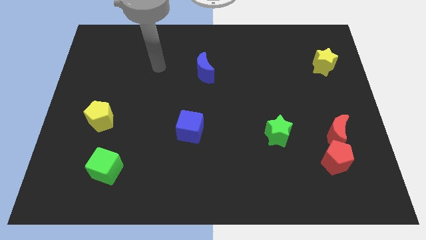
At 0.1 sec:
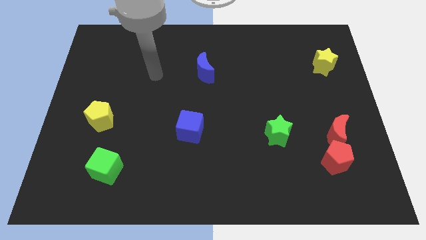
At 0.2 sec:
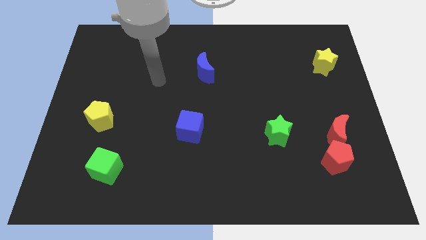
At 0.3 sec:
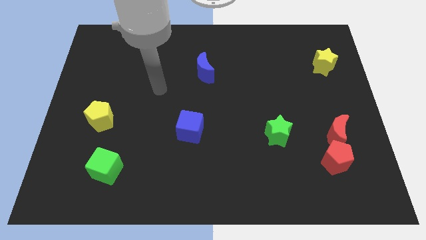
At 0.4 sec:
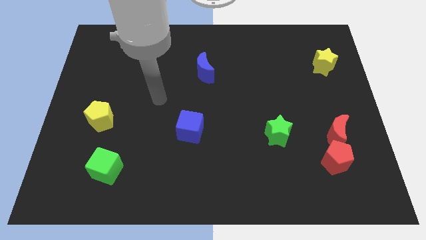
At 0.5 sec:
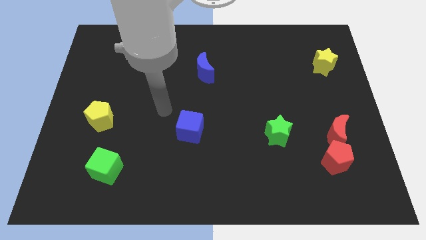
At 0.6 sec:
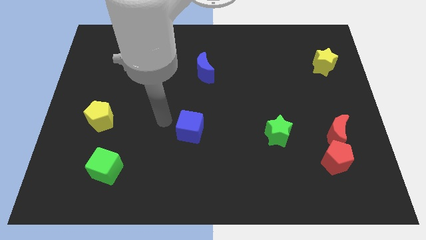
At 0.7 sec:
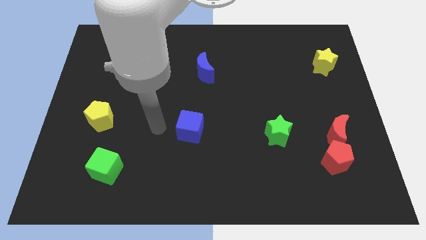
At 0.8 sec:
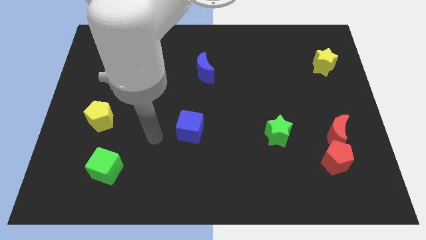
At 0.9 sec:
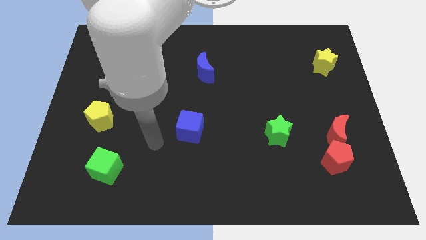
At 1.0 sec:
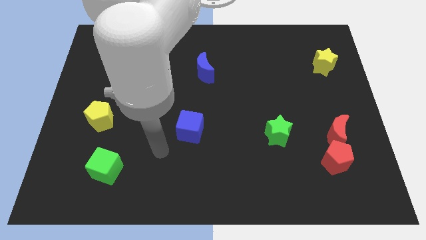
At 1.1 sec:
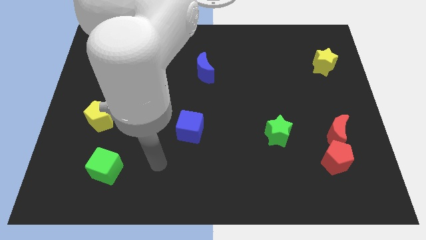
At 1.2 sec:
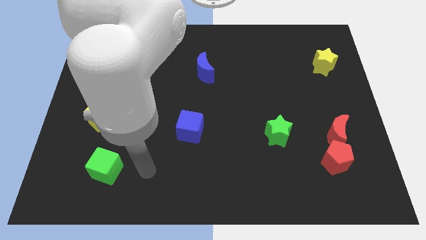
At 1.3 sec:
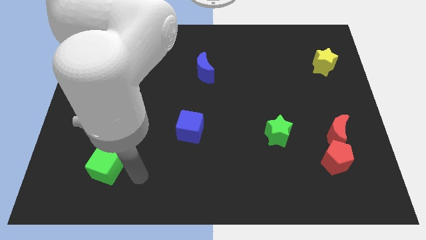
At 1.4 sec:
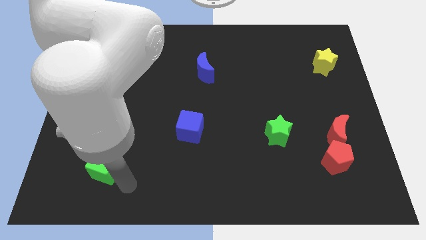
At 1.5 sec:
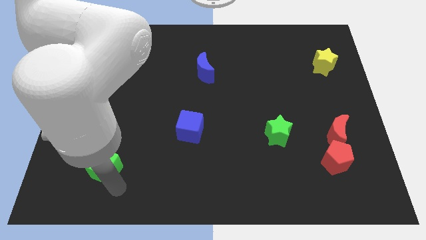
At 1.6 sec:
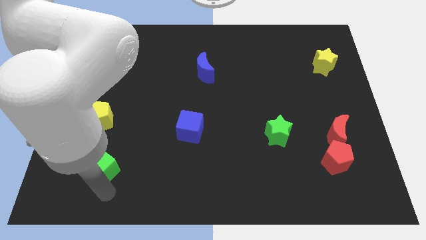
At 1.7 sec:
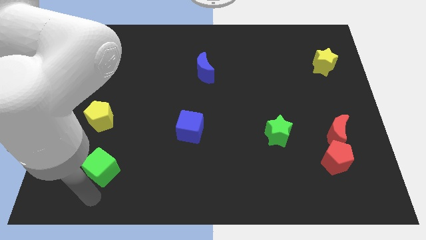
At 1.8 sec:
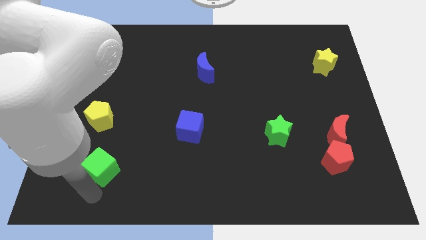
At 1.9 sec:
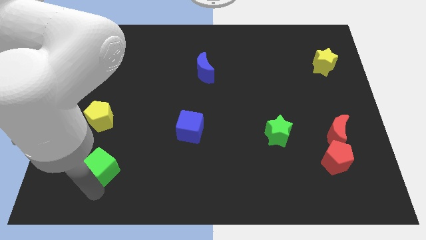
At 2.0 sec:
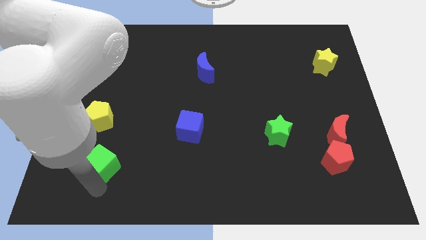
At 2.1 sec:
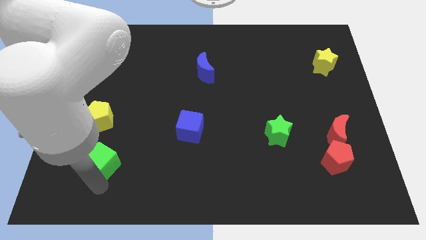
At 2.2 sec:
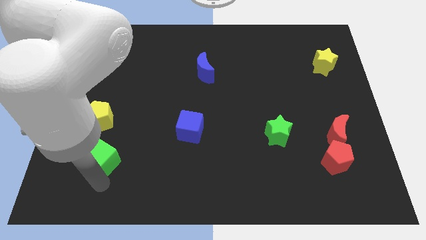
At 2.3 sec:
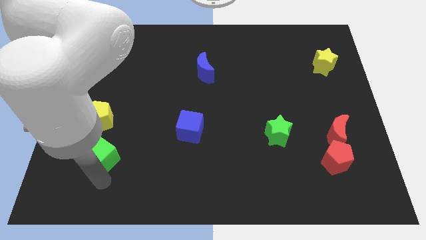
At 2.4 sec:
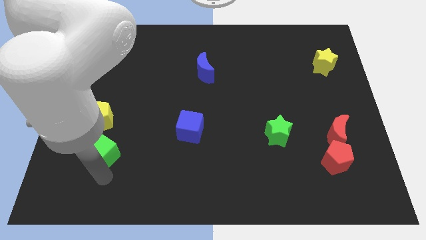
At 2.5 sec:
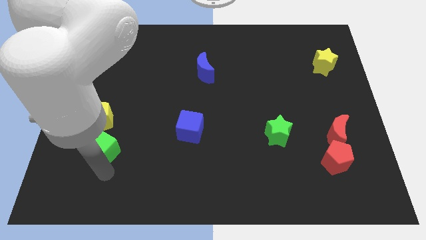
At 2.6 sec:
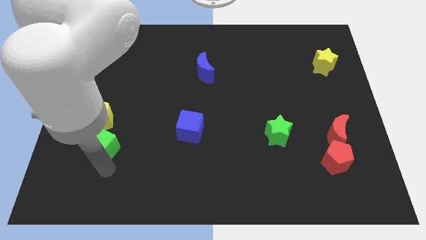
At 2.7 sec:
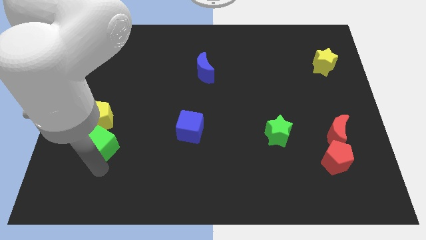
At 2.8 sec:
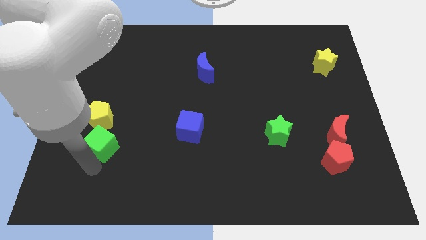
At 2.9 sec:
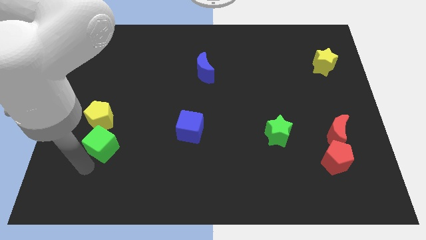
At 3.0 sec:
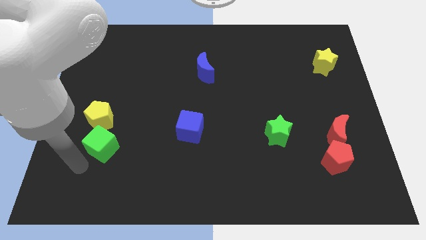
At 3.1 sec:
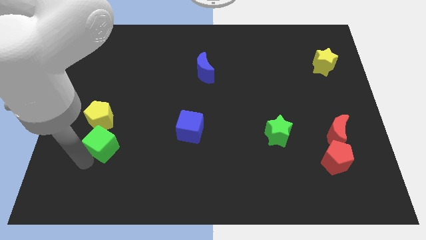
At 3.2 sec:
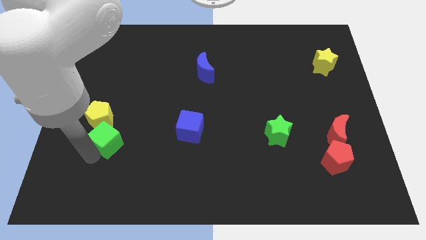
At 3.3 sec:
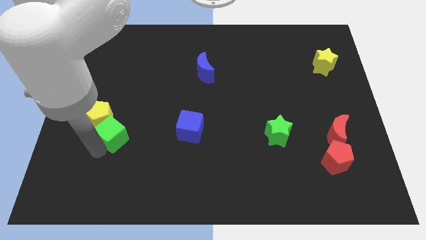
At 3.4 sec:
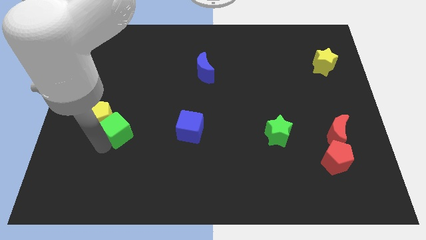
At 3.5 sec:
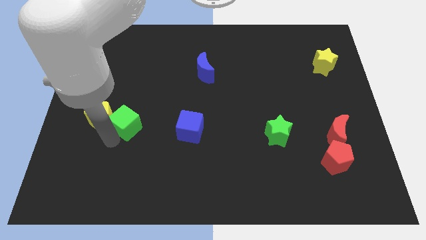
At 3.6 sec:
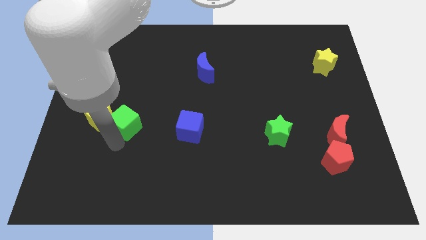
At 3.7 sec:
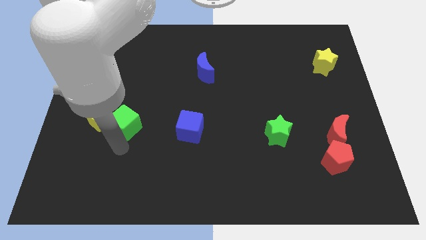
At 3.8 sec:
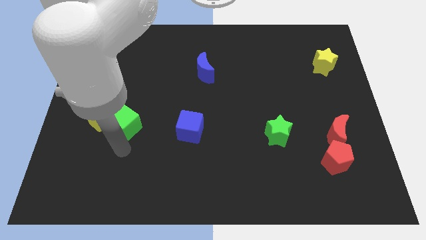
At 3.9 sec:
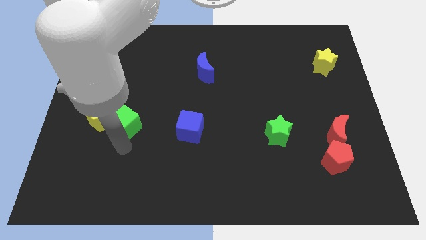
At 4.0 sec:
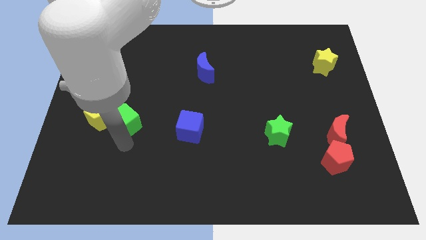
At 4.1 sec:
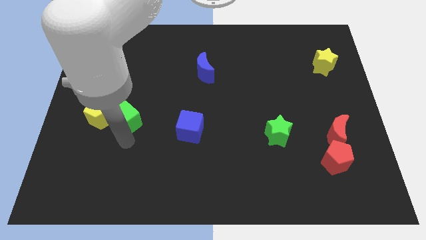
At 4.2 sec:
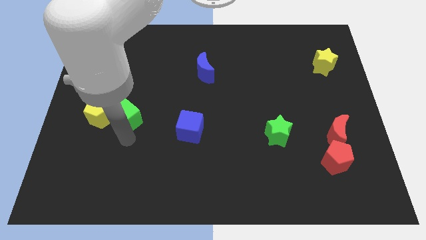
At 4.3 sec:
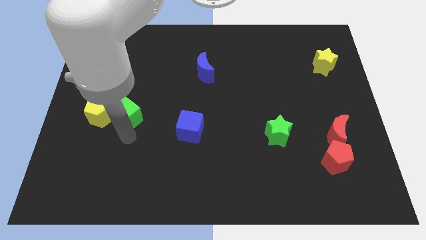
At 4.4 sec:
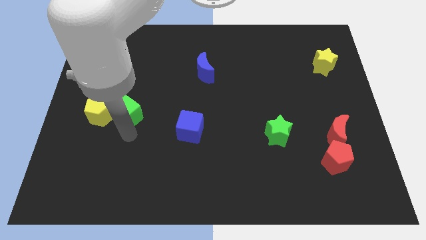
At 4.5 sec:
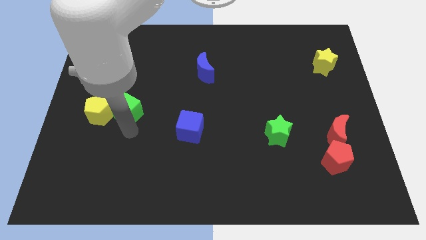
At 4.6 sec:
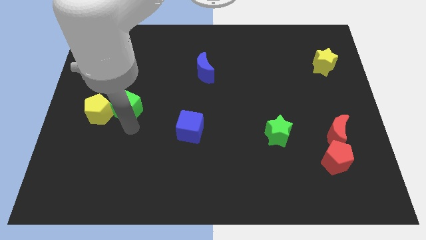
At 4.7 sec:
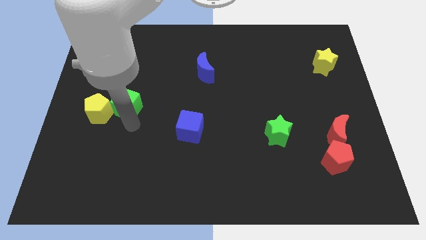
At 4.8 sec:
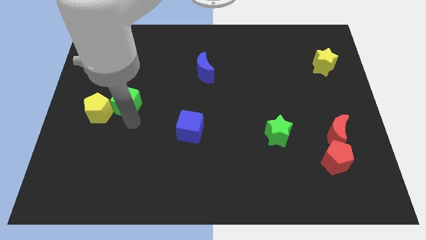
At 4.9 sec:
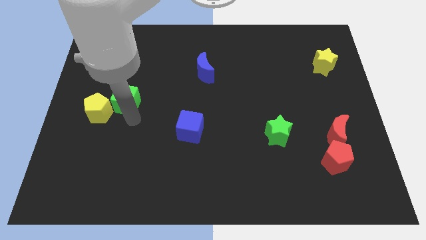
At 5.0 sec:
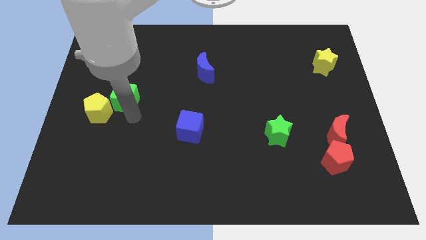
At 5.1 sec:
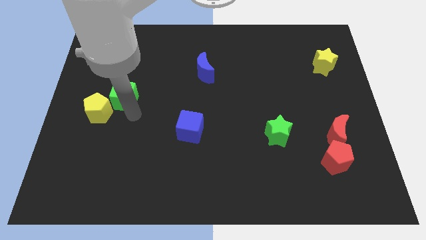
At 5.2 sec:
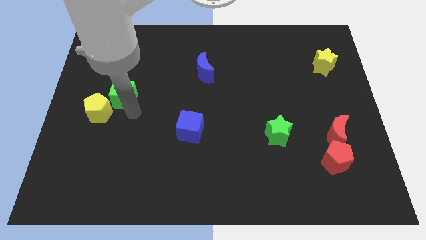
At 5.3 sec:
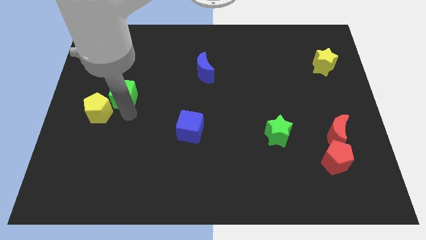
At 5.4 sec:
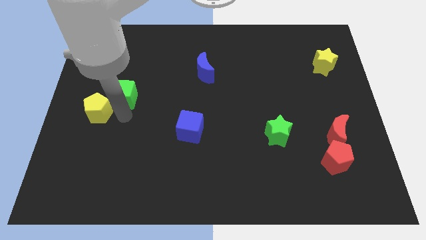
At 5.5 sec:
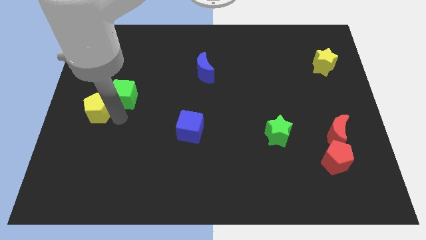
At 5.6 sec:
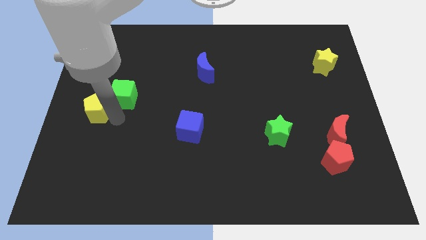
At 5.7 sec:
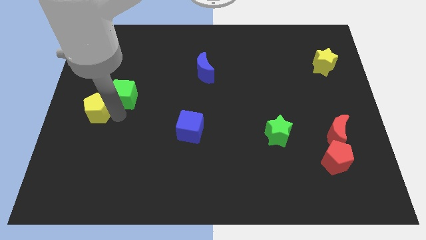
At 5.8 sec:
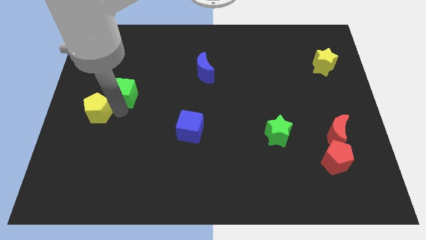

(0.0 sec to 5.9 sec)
push the green cube upwards

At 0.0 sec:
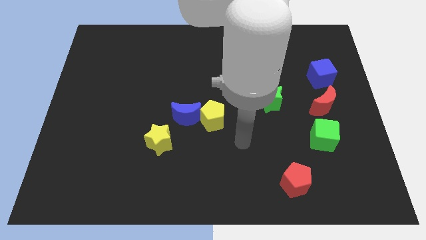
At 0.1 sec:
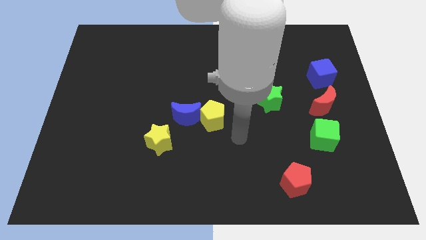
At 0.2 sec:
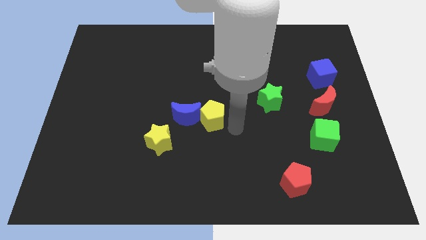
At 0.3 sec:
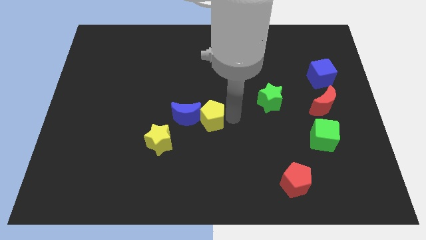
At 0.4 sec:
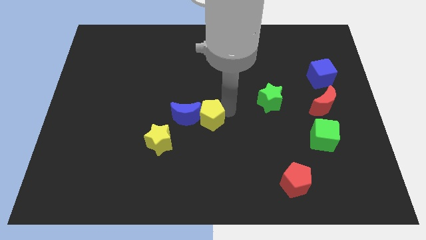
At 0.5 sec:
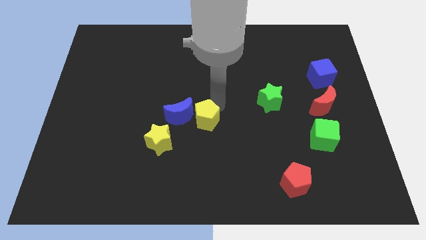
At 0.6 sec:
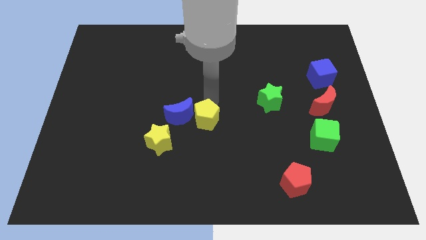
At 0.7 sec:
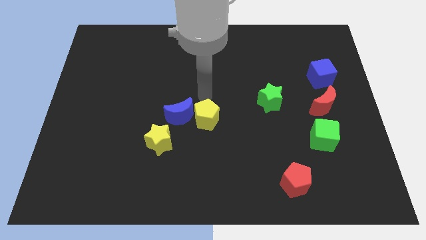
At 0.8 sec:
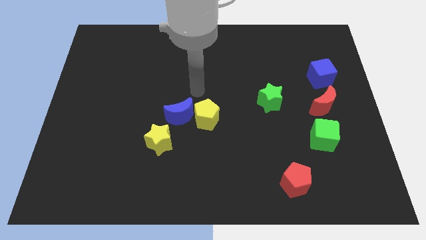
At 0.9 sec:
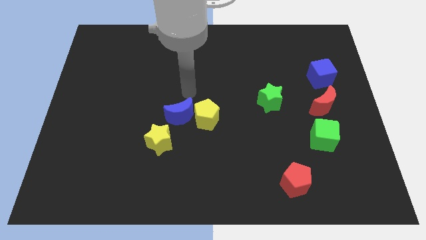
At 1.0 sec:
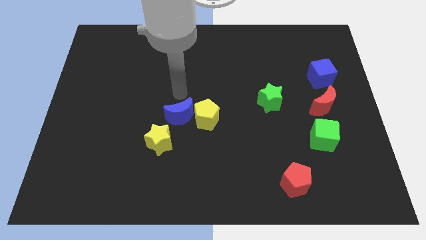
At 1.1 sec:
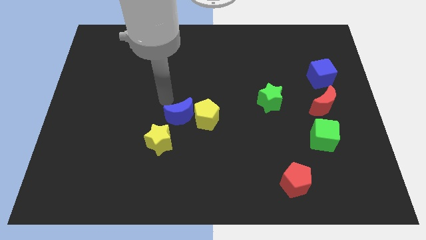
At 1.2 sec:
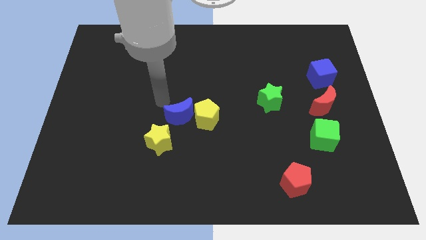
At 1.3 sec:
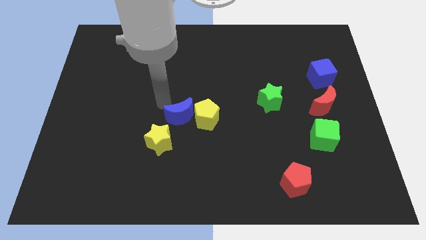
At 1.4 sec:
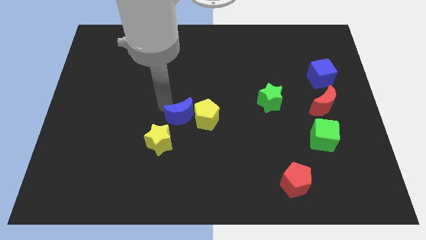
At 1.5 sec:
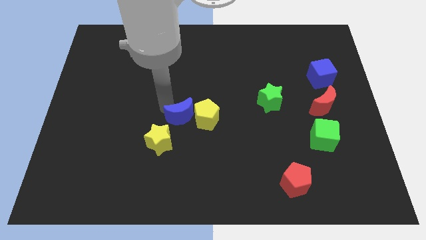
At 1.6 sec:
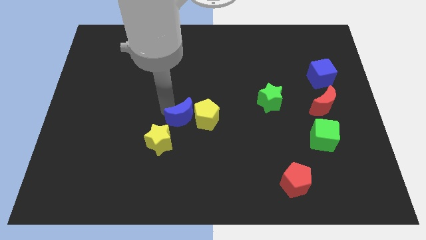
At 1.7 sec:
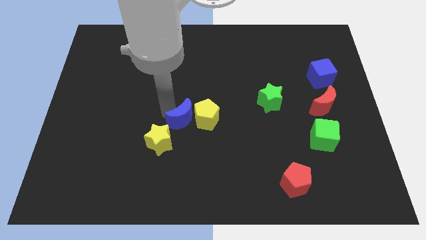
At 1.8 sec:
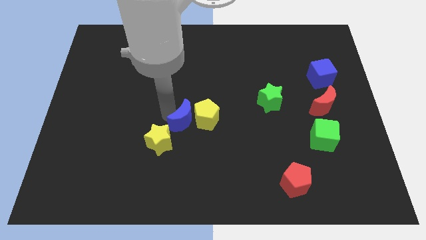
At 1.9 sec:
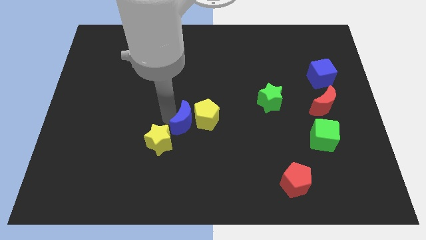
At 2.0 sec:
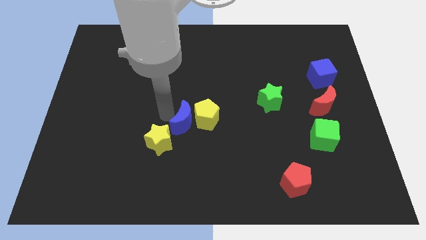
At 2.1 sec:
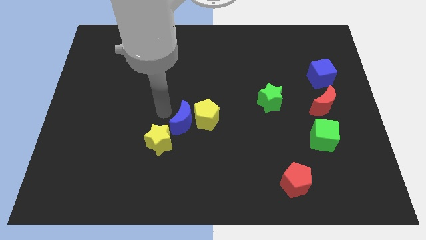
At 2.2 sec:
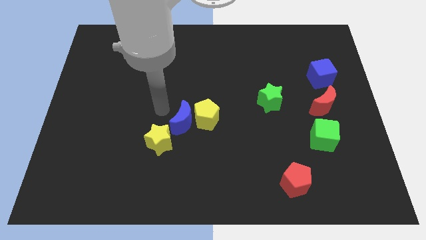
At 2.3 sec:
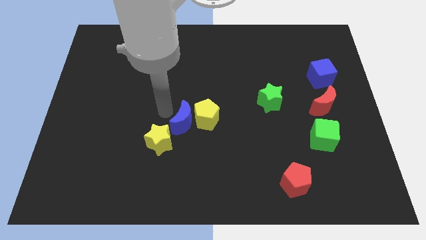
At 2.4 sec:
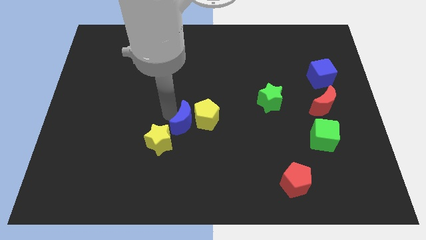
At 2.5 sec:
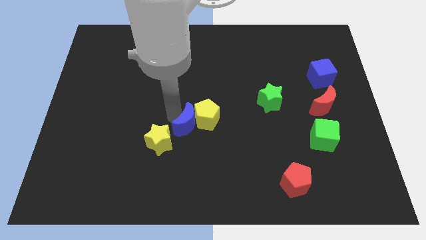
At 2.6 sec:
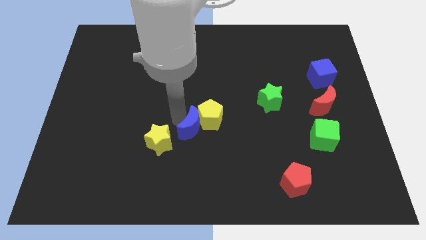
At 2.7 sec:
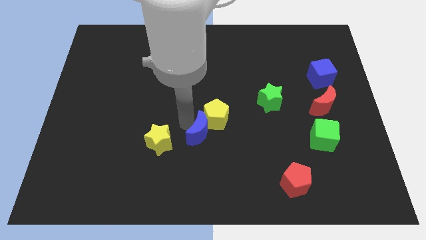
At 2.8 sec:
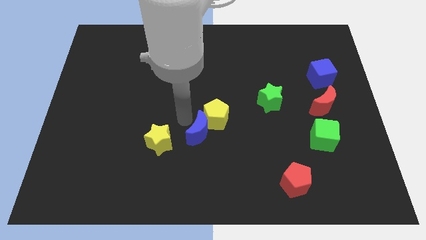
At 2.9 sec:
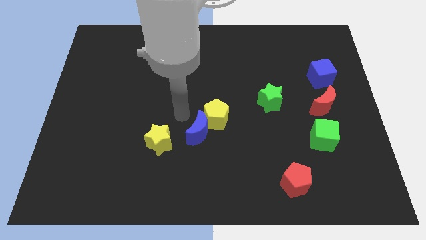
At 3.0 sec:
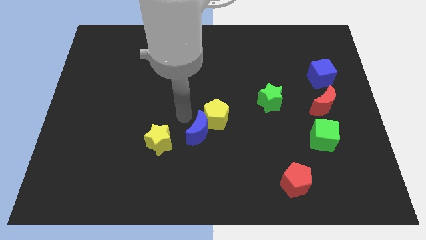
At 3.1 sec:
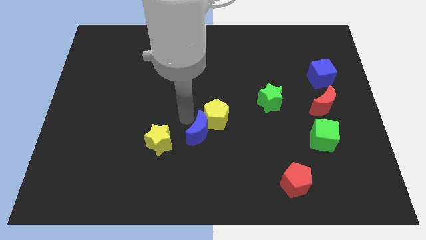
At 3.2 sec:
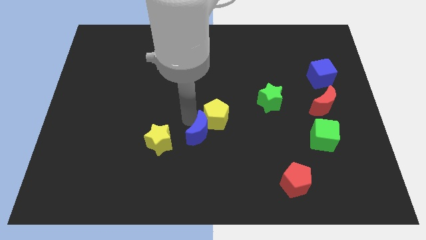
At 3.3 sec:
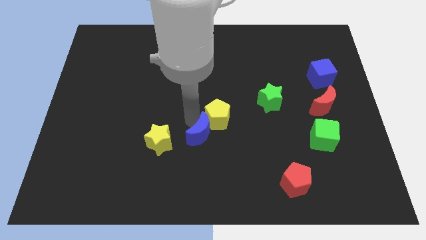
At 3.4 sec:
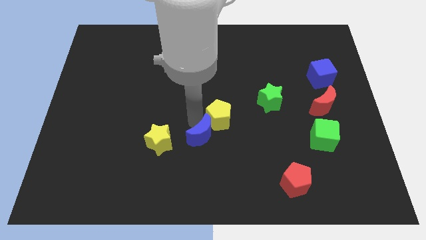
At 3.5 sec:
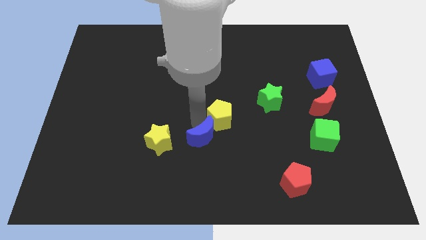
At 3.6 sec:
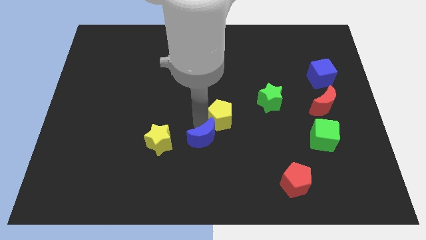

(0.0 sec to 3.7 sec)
slide the blue moon slightly diagonally down and right
